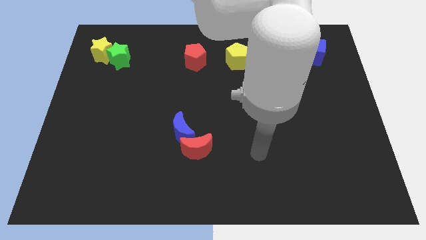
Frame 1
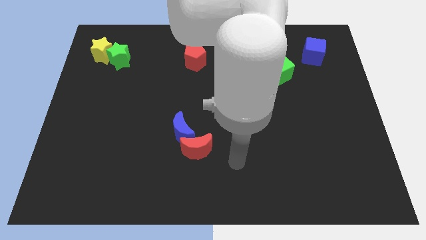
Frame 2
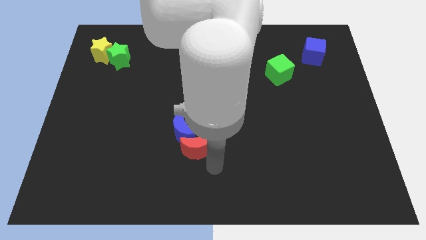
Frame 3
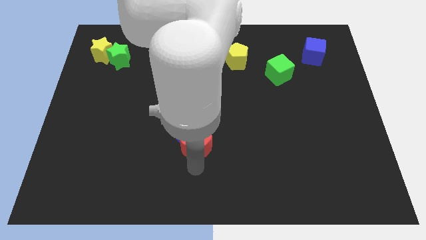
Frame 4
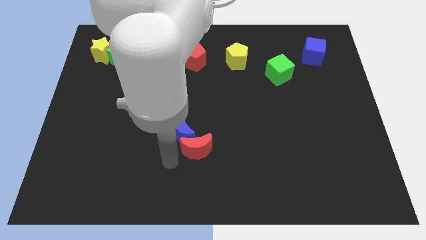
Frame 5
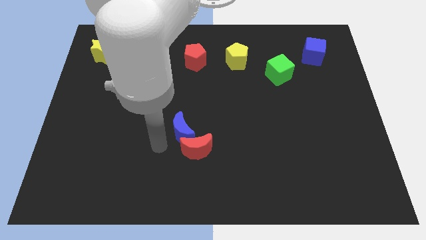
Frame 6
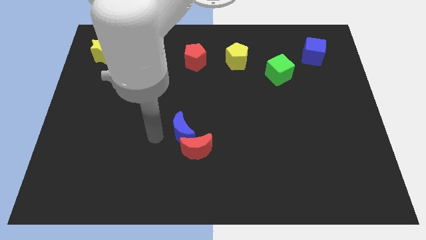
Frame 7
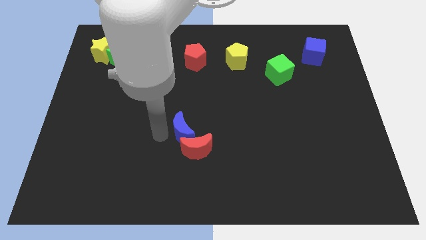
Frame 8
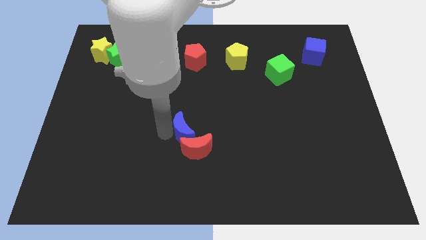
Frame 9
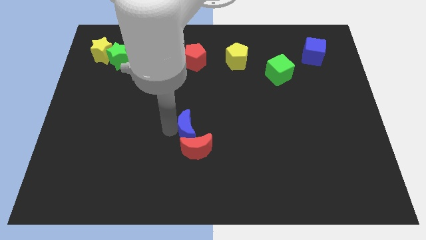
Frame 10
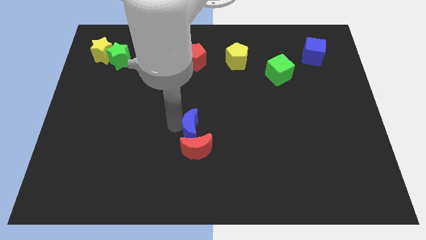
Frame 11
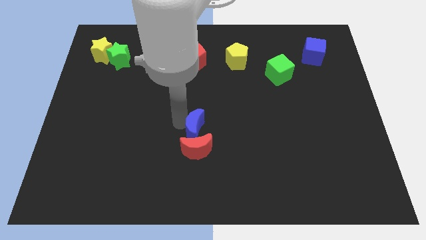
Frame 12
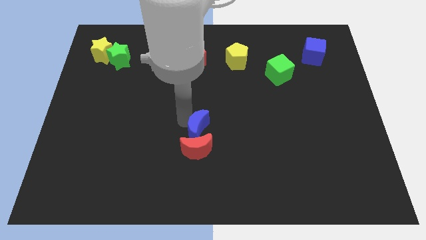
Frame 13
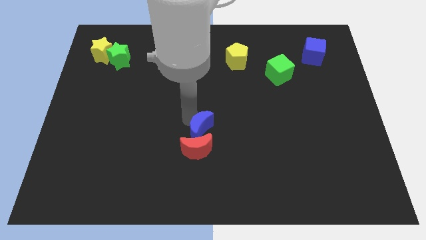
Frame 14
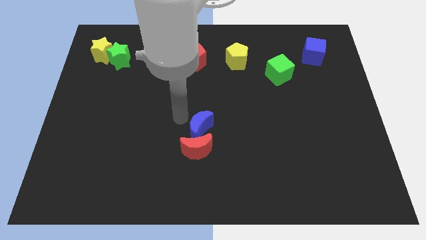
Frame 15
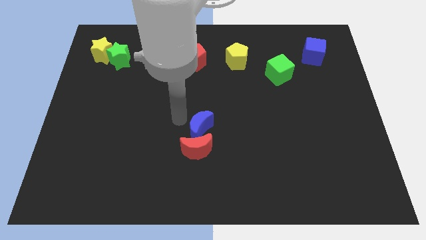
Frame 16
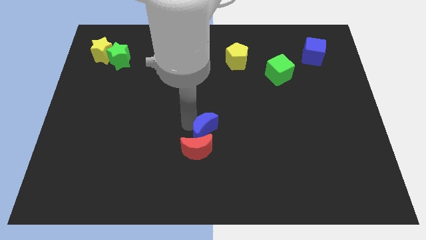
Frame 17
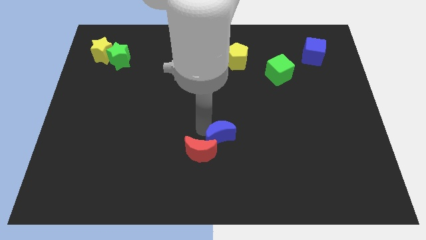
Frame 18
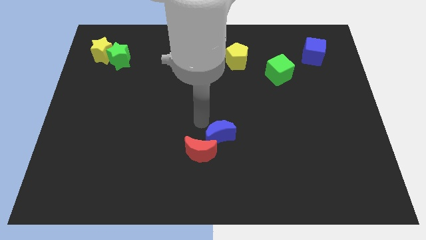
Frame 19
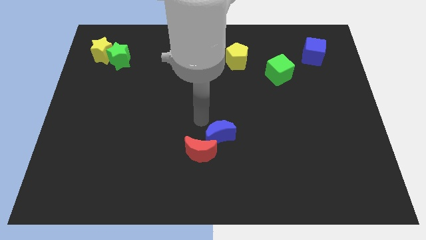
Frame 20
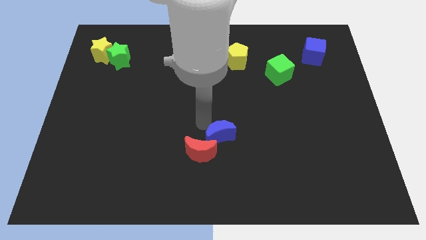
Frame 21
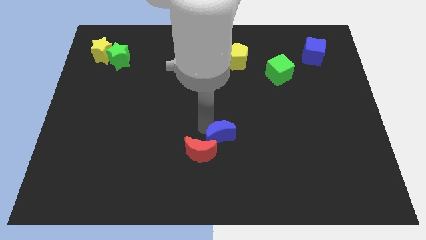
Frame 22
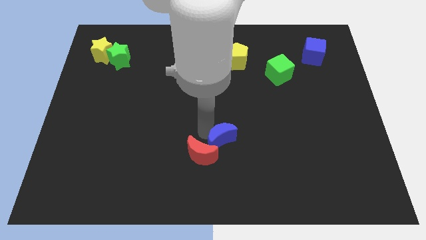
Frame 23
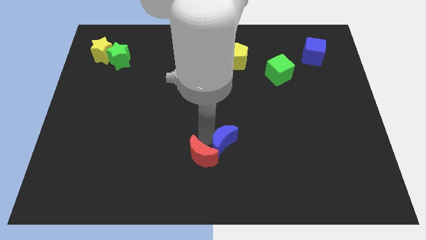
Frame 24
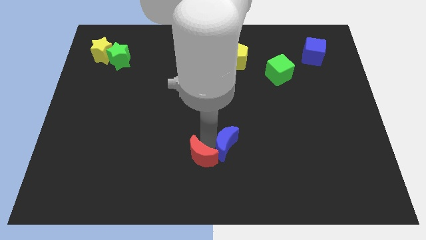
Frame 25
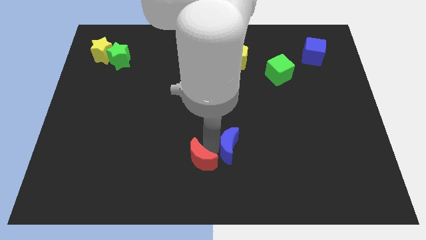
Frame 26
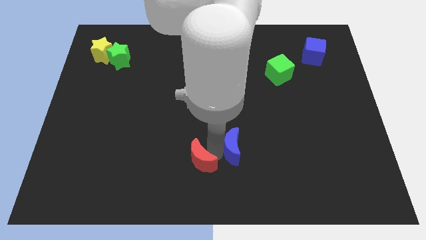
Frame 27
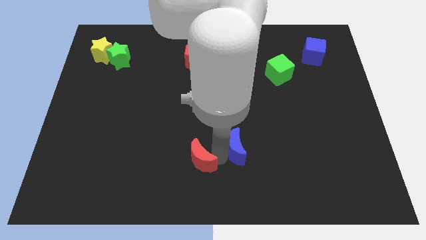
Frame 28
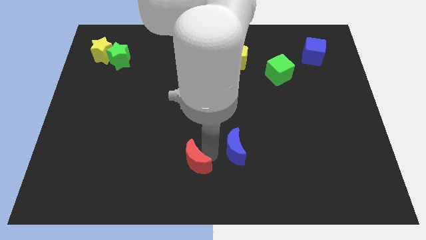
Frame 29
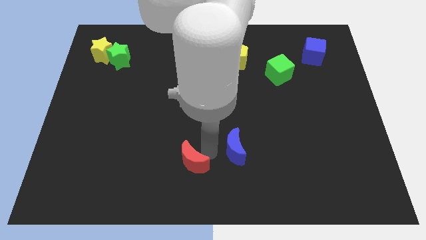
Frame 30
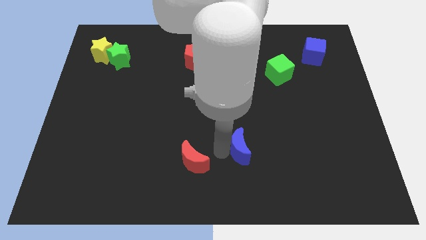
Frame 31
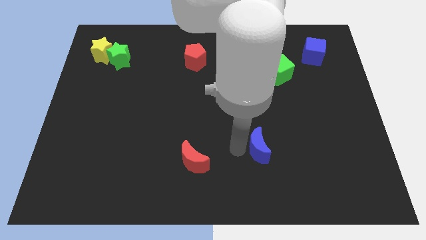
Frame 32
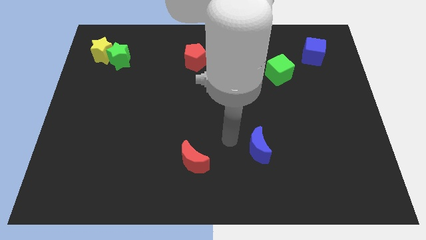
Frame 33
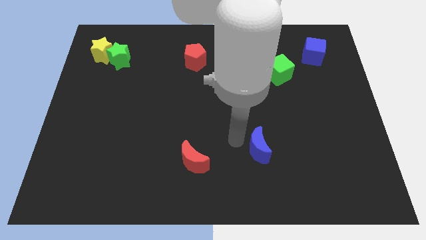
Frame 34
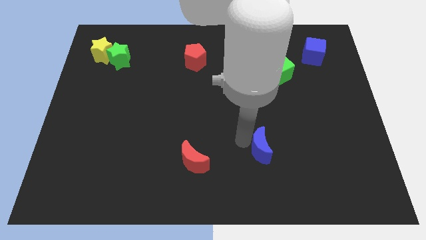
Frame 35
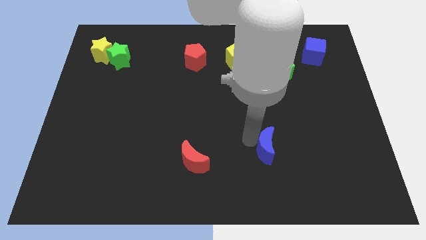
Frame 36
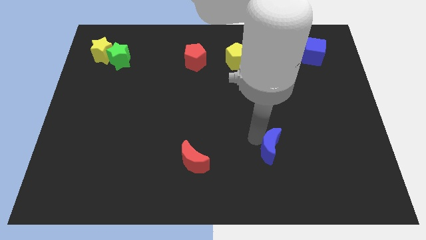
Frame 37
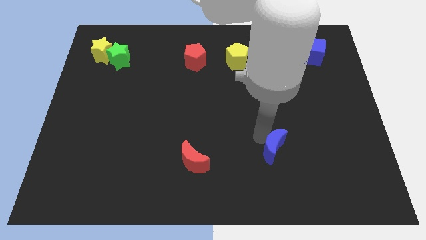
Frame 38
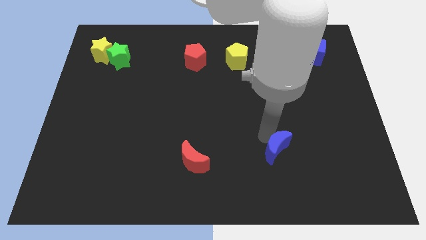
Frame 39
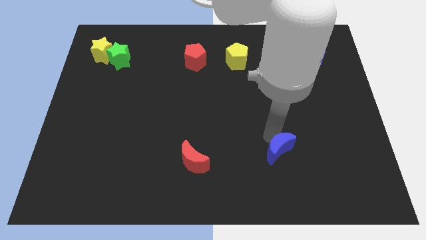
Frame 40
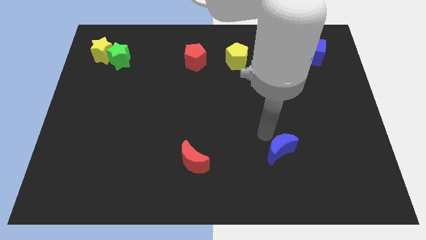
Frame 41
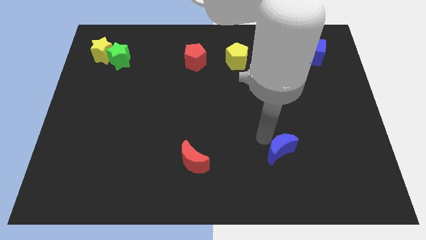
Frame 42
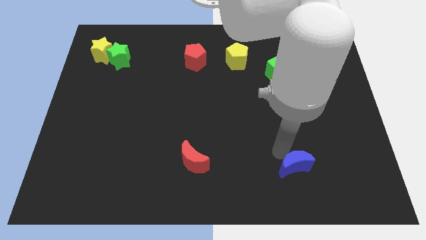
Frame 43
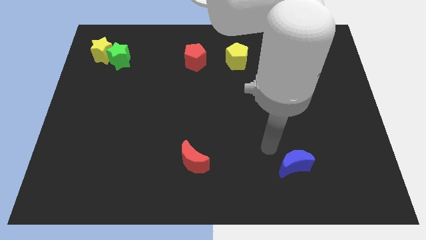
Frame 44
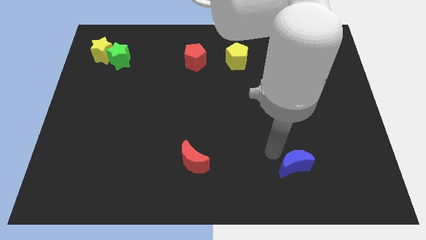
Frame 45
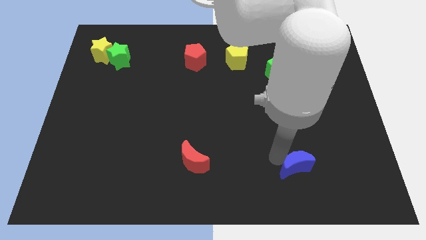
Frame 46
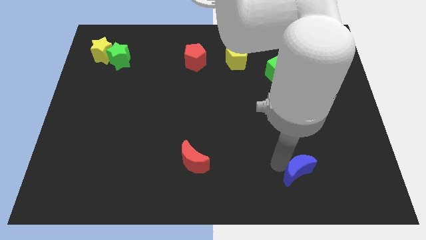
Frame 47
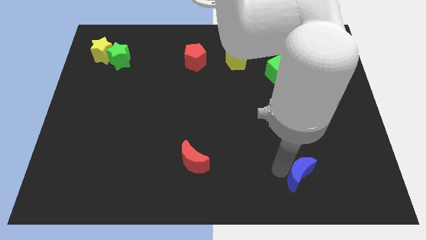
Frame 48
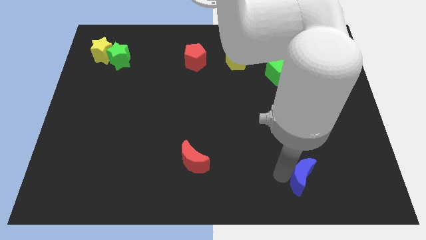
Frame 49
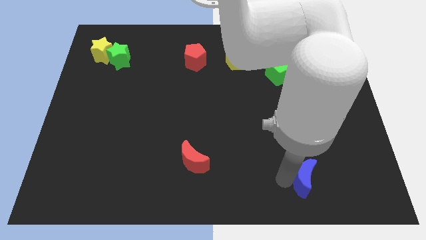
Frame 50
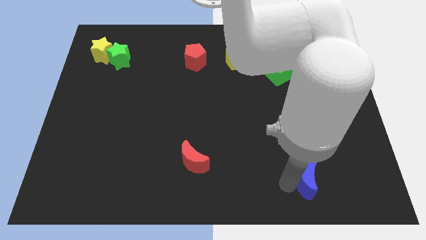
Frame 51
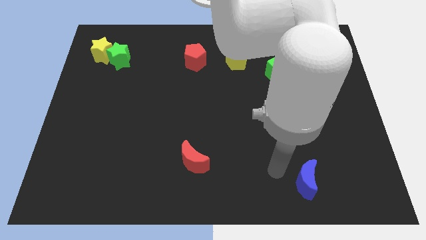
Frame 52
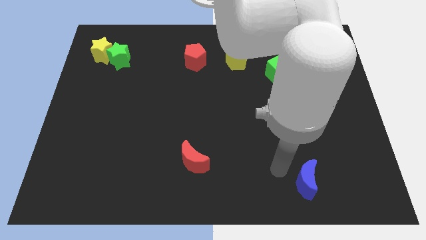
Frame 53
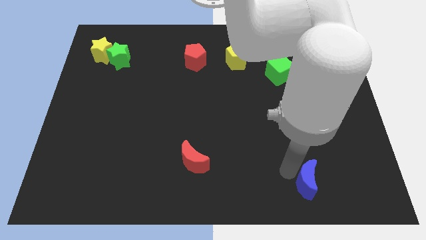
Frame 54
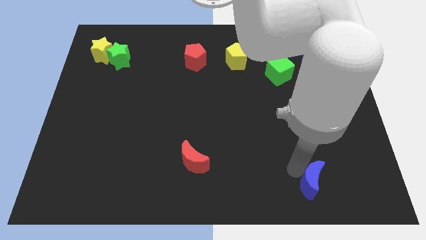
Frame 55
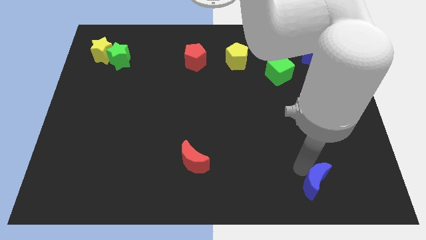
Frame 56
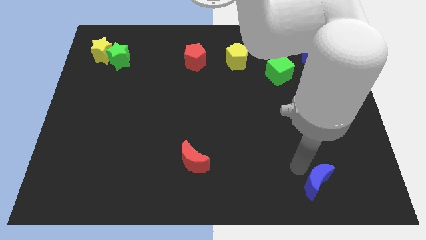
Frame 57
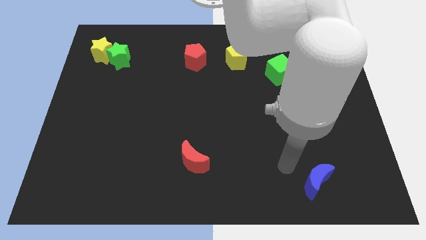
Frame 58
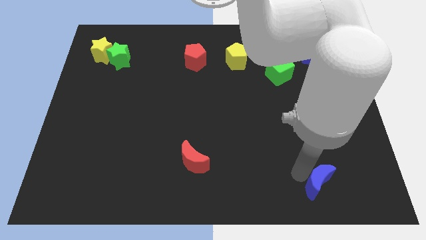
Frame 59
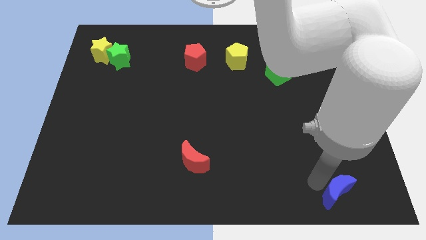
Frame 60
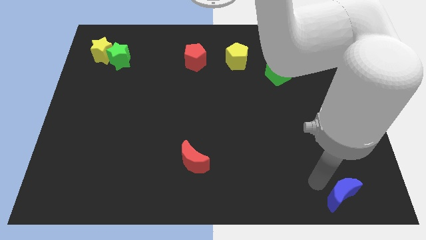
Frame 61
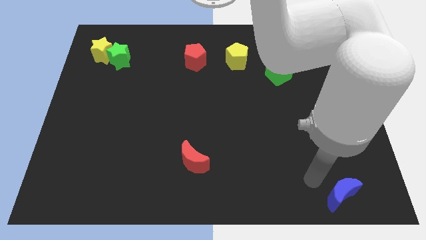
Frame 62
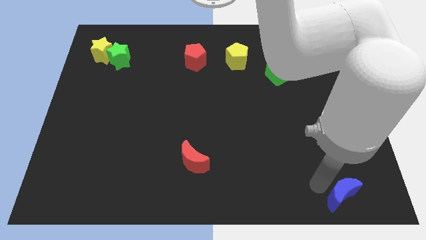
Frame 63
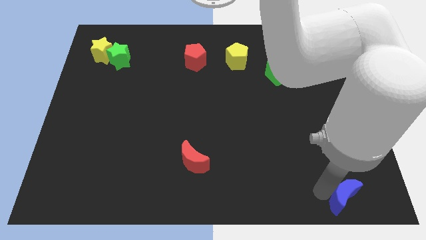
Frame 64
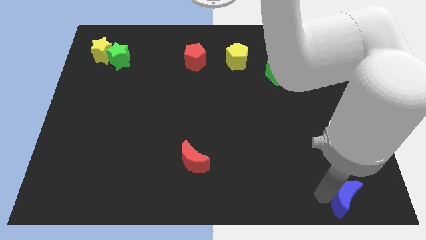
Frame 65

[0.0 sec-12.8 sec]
move the blue moon to the lower right corner

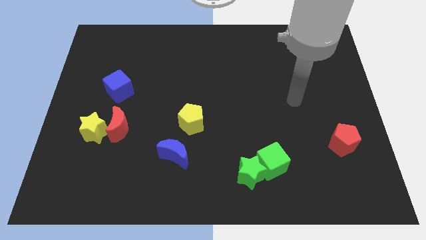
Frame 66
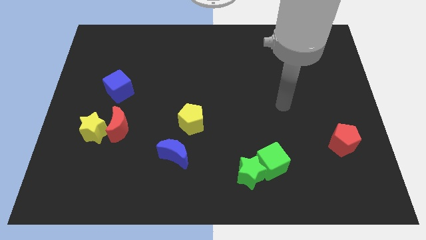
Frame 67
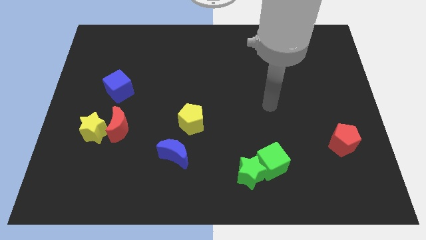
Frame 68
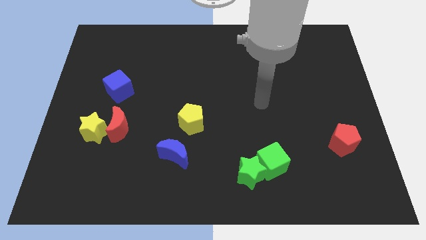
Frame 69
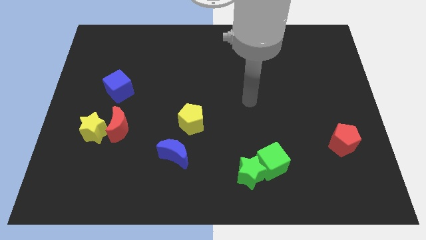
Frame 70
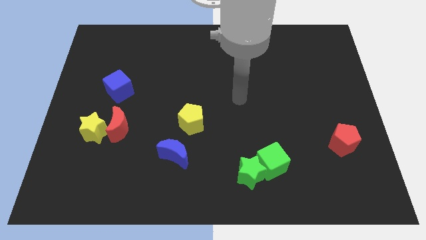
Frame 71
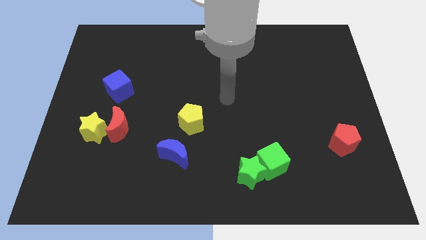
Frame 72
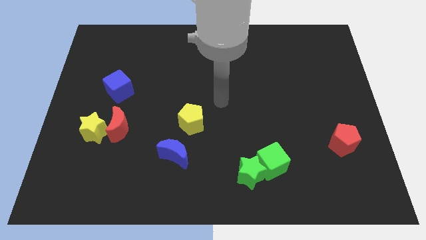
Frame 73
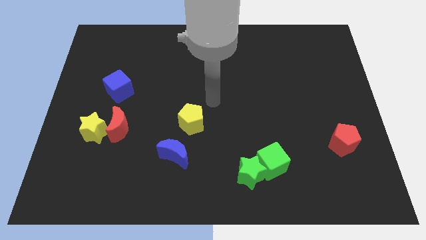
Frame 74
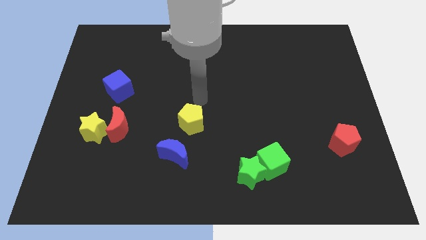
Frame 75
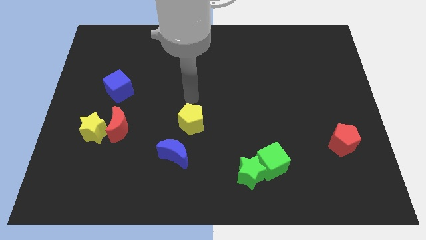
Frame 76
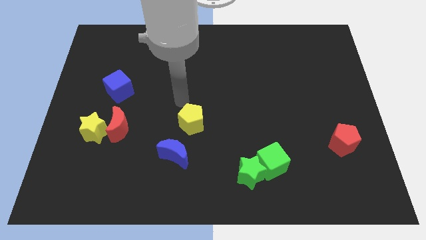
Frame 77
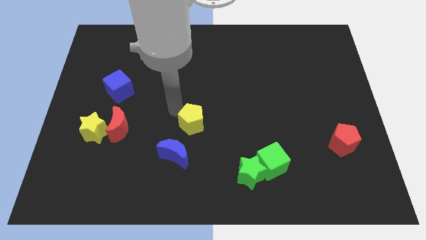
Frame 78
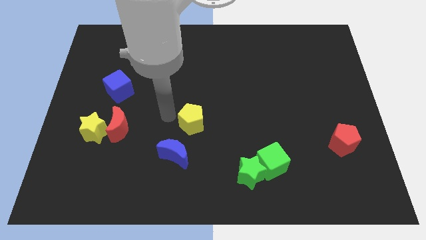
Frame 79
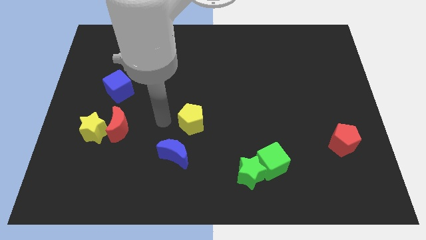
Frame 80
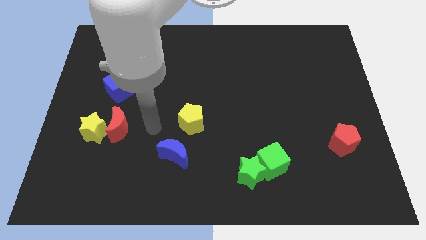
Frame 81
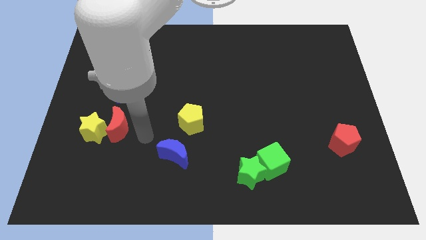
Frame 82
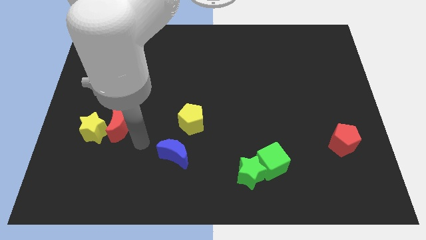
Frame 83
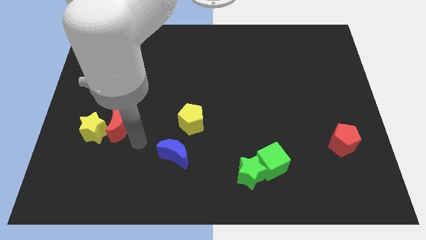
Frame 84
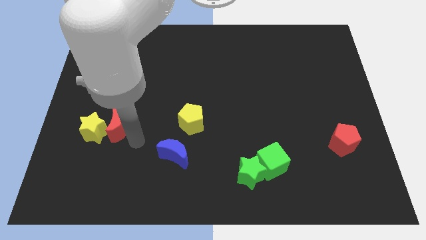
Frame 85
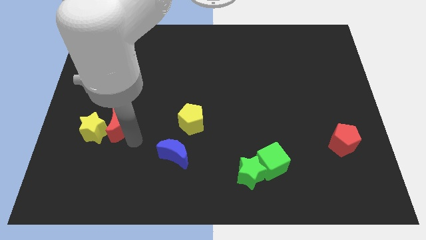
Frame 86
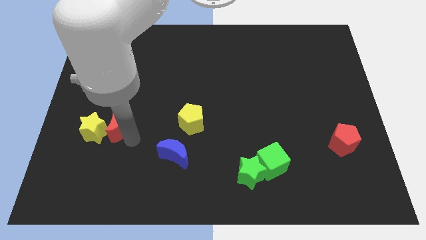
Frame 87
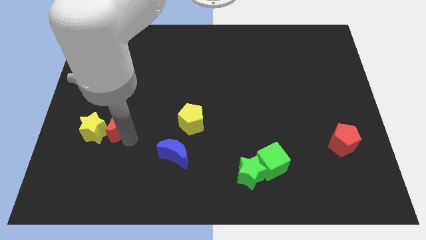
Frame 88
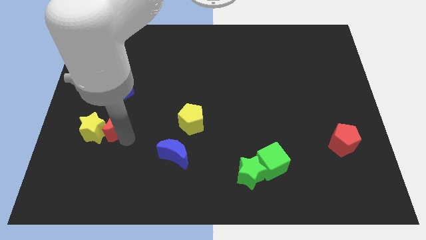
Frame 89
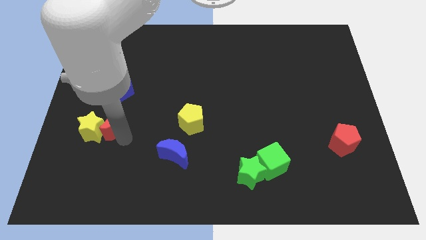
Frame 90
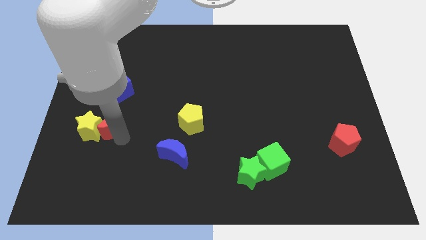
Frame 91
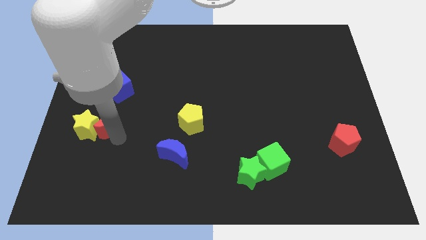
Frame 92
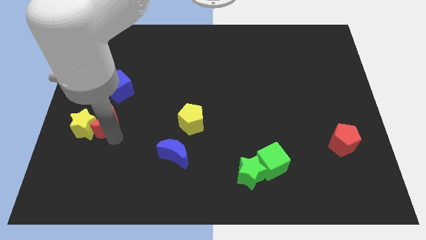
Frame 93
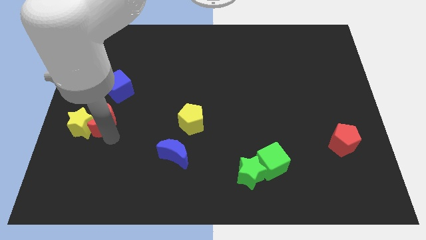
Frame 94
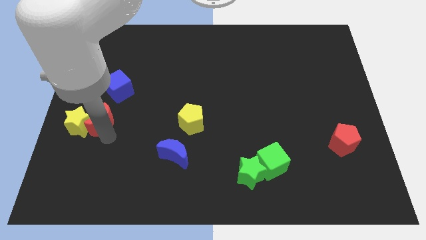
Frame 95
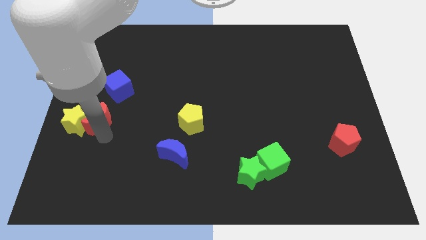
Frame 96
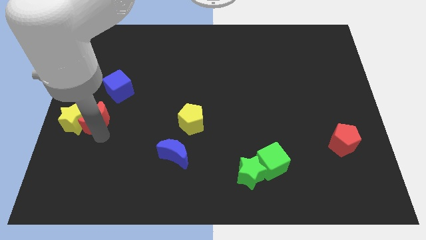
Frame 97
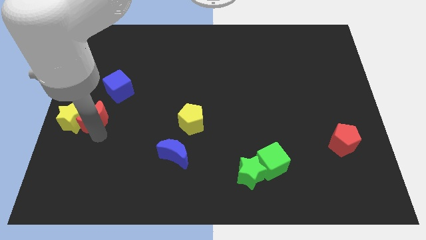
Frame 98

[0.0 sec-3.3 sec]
put the red moon to the left side
